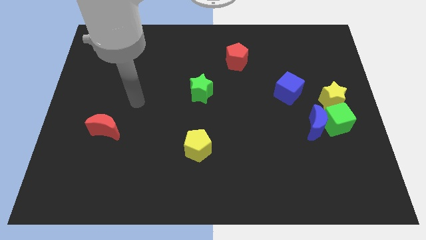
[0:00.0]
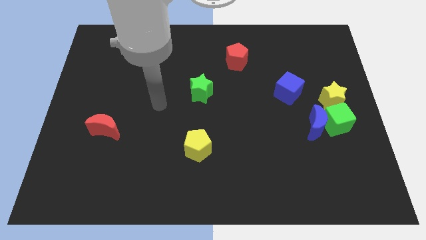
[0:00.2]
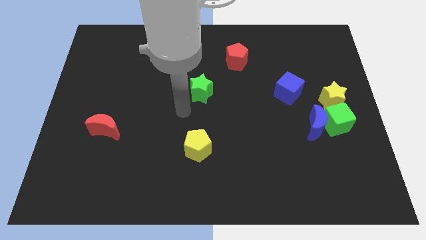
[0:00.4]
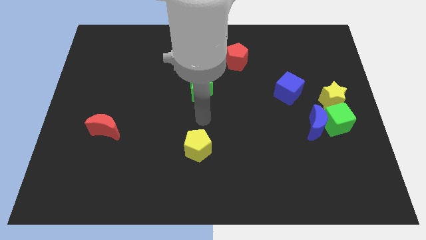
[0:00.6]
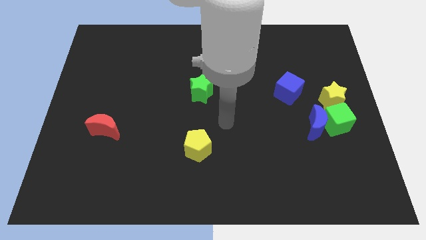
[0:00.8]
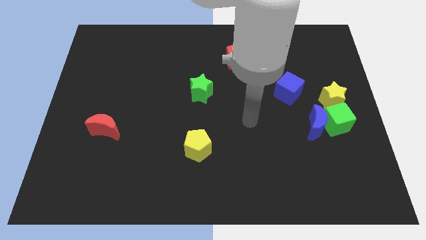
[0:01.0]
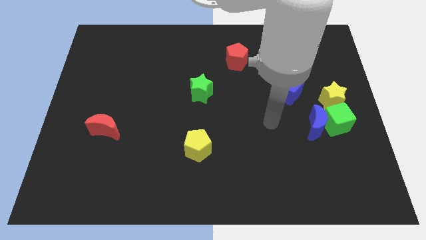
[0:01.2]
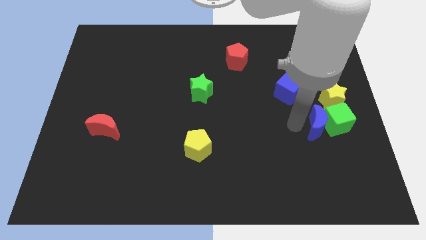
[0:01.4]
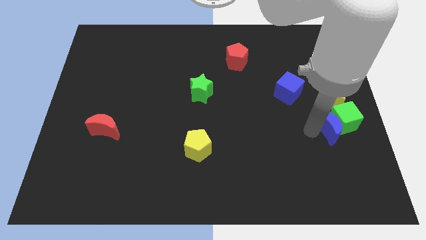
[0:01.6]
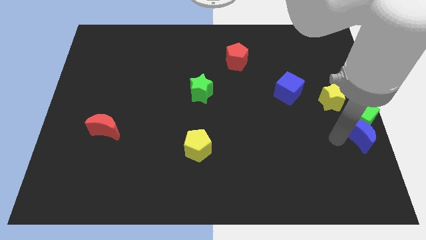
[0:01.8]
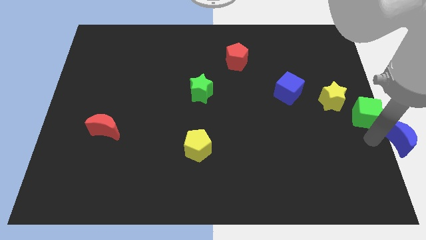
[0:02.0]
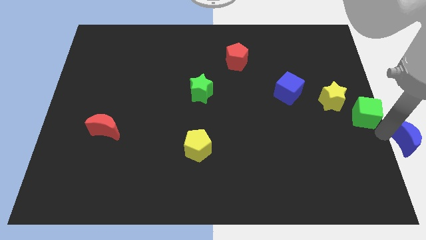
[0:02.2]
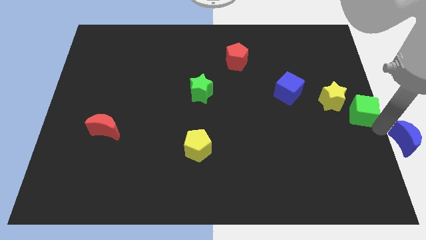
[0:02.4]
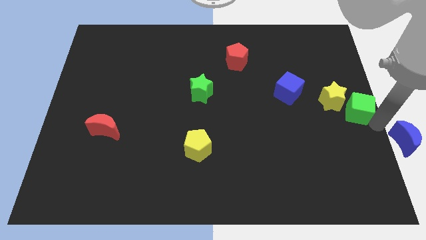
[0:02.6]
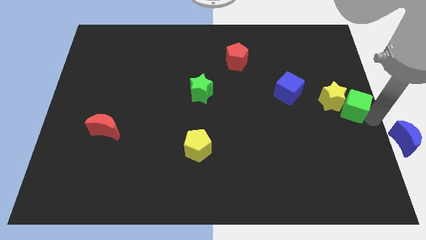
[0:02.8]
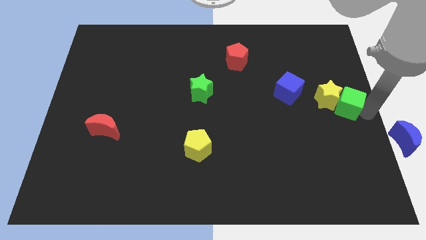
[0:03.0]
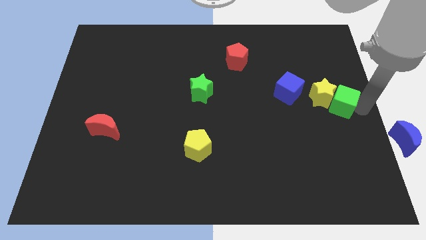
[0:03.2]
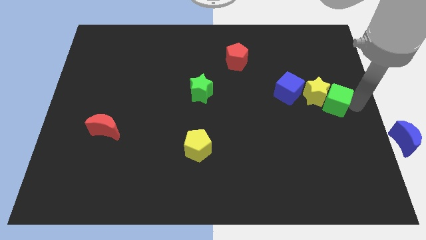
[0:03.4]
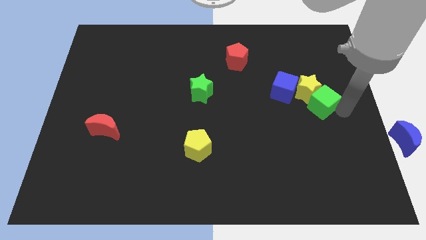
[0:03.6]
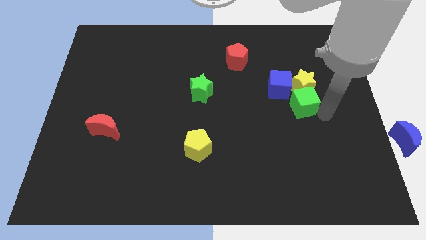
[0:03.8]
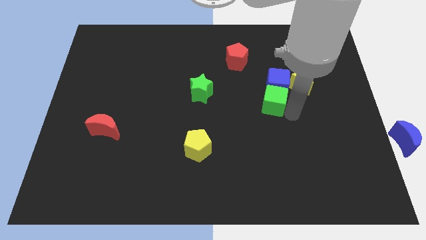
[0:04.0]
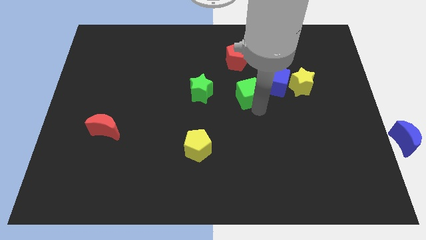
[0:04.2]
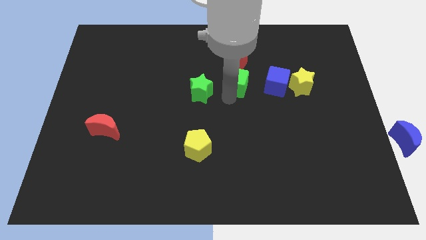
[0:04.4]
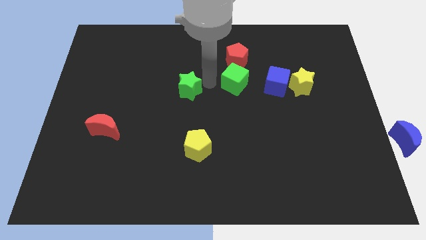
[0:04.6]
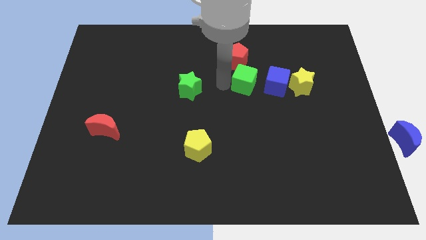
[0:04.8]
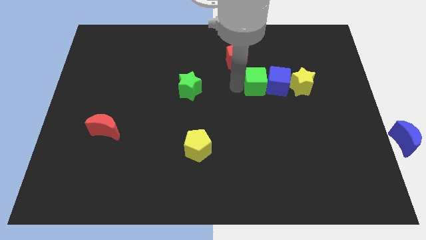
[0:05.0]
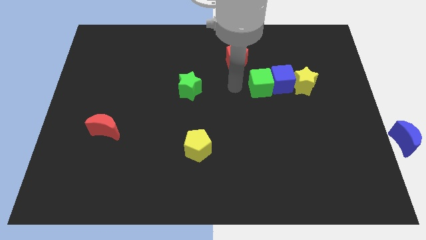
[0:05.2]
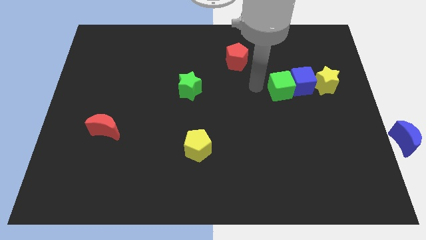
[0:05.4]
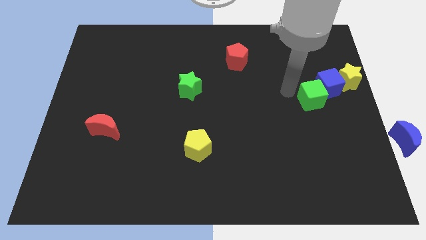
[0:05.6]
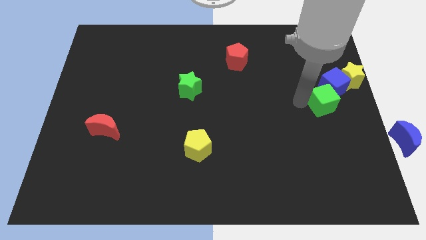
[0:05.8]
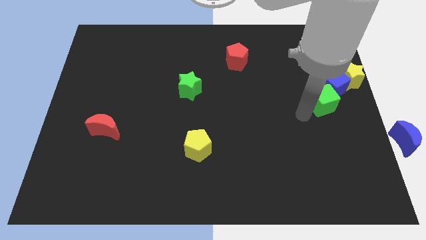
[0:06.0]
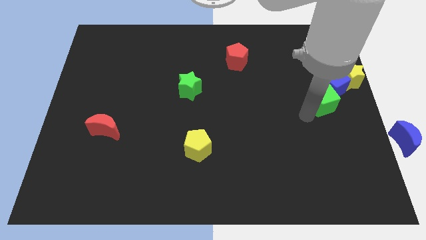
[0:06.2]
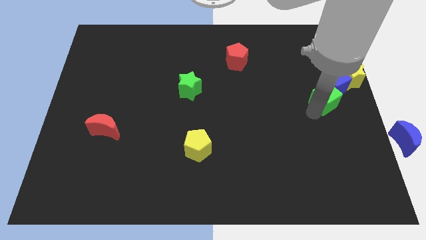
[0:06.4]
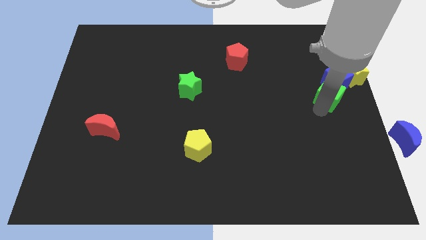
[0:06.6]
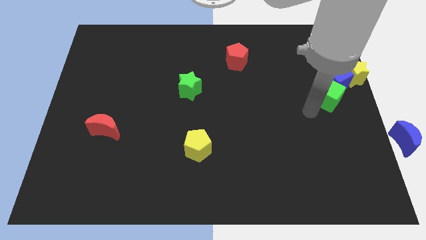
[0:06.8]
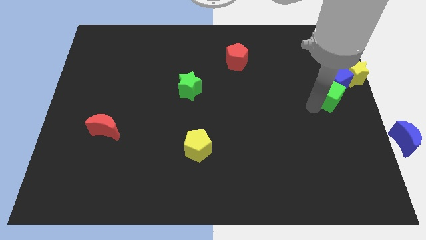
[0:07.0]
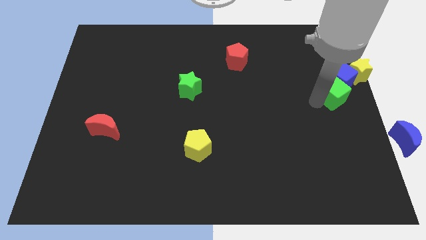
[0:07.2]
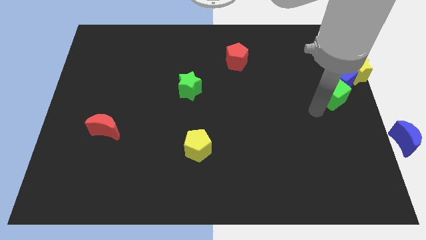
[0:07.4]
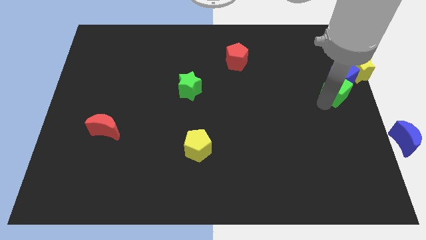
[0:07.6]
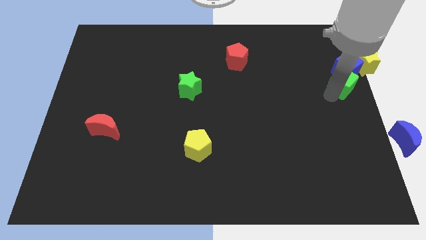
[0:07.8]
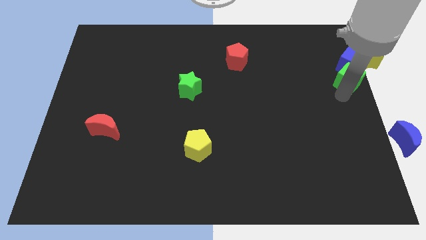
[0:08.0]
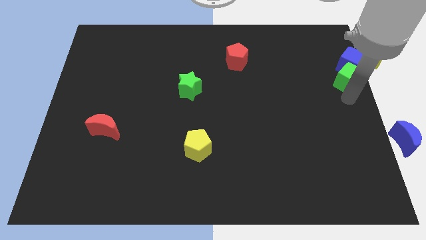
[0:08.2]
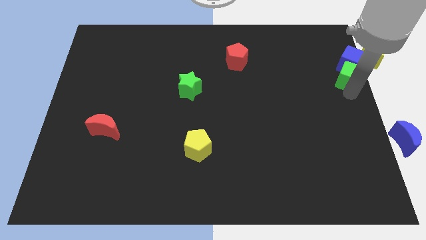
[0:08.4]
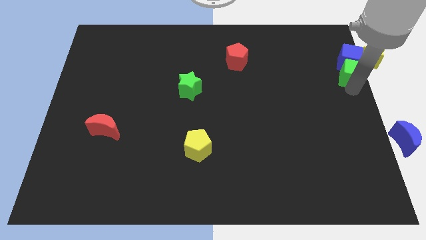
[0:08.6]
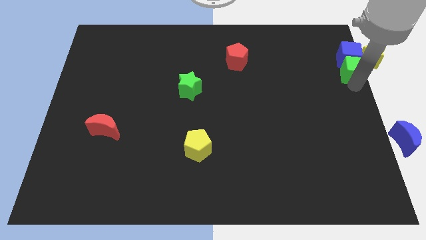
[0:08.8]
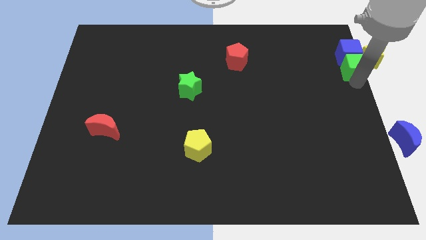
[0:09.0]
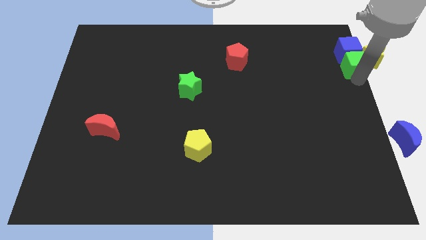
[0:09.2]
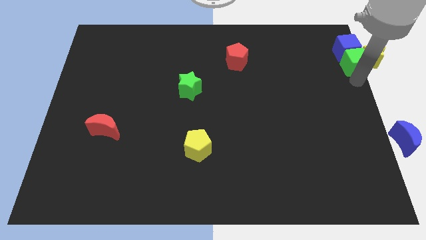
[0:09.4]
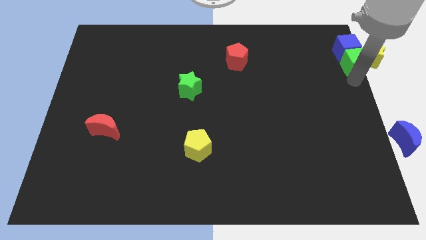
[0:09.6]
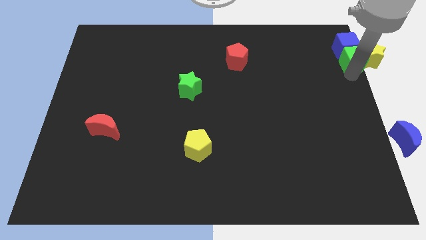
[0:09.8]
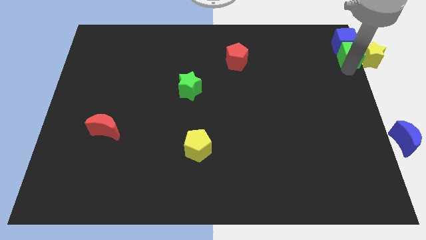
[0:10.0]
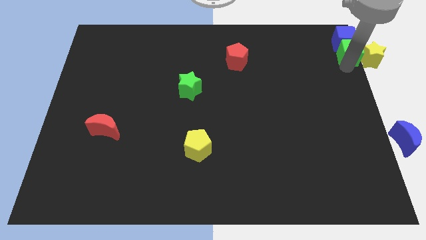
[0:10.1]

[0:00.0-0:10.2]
put the green cube to the top right

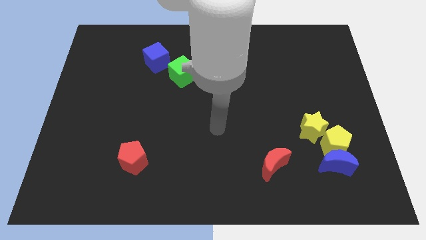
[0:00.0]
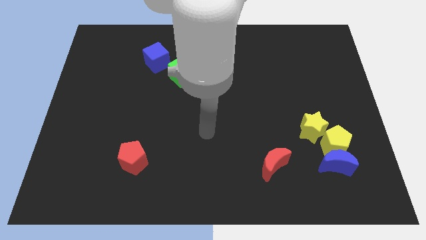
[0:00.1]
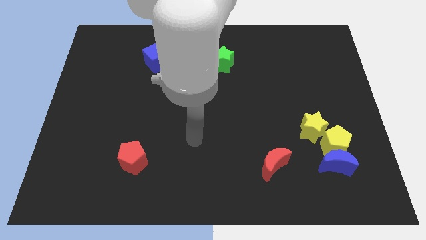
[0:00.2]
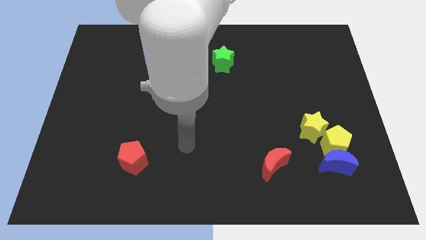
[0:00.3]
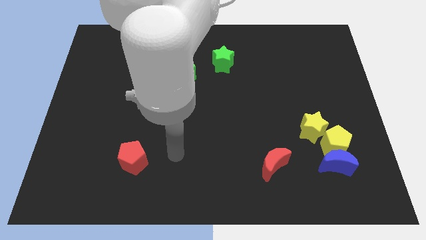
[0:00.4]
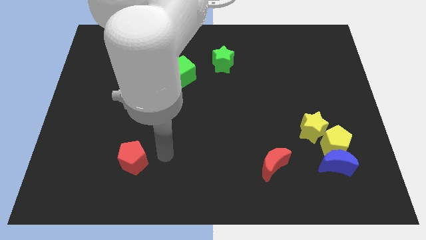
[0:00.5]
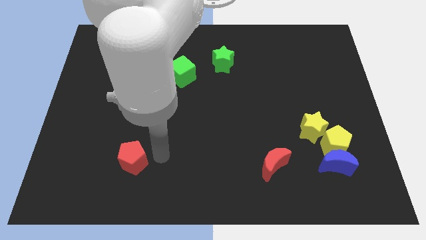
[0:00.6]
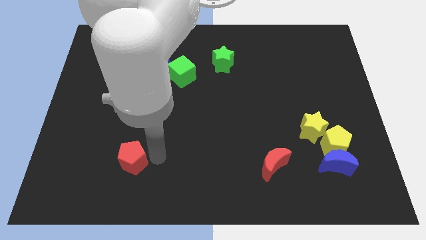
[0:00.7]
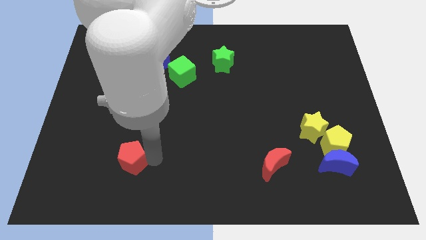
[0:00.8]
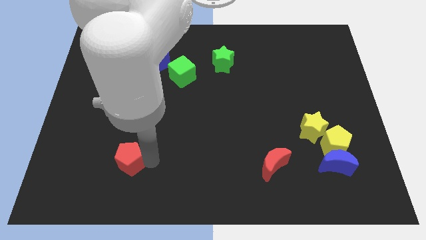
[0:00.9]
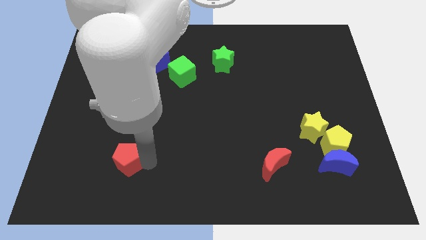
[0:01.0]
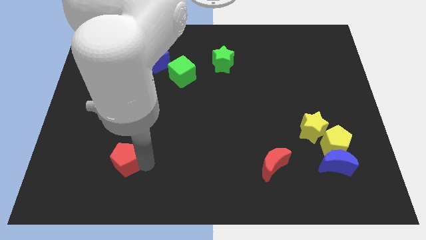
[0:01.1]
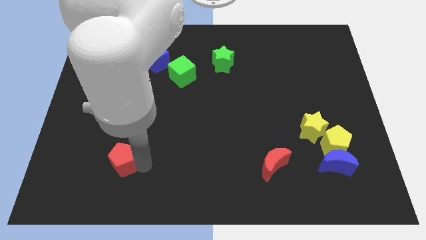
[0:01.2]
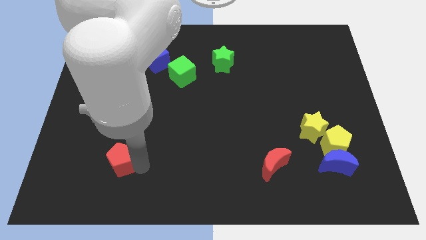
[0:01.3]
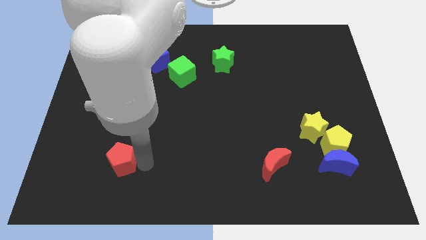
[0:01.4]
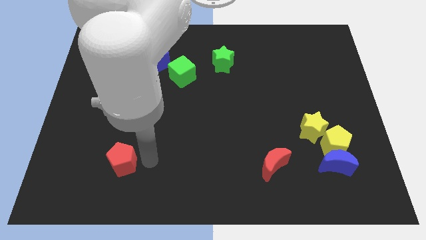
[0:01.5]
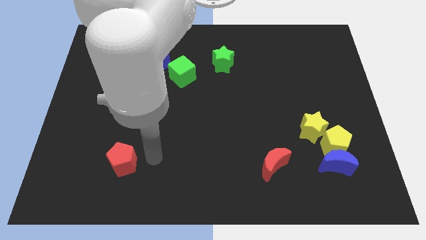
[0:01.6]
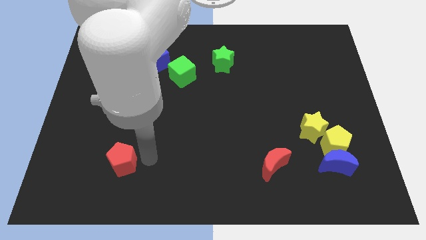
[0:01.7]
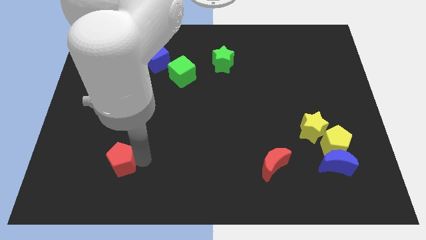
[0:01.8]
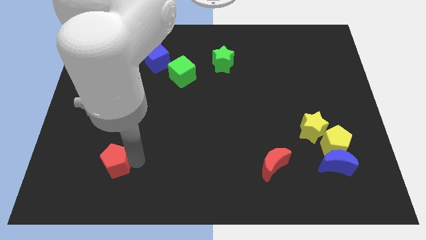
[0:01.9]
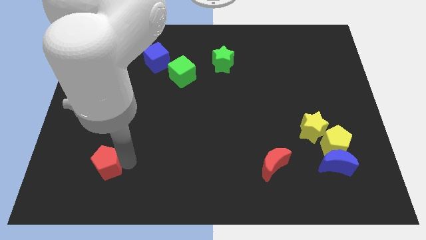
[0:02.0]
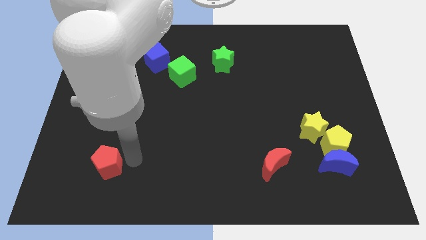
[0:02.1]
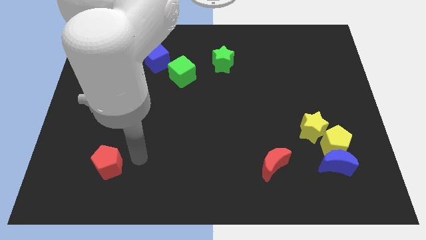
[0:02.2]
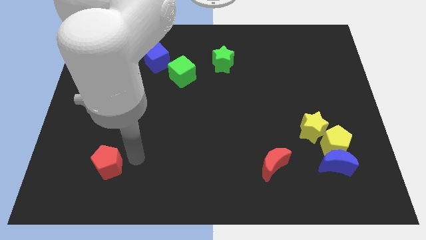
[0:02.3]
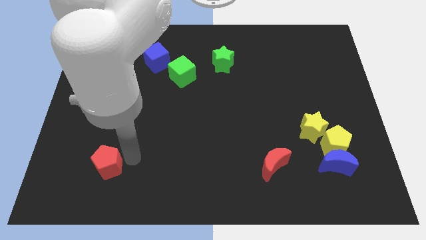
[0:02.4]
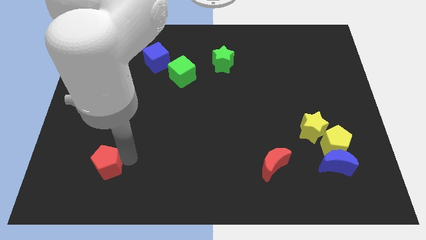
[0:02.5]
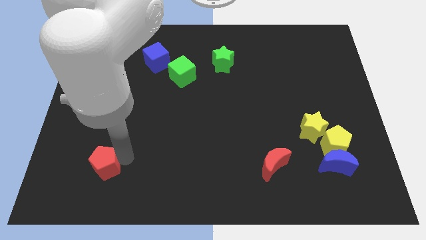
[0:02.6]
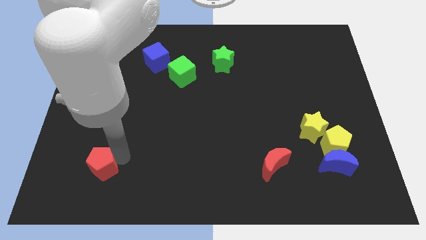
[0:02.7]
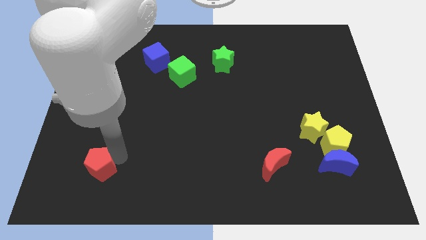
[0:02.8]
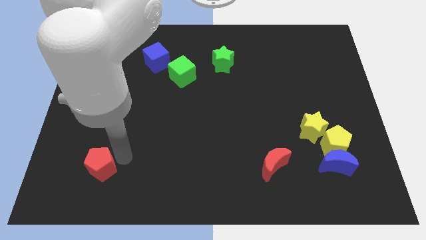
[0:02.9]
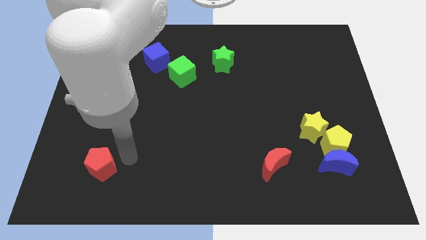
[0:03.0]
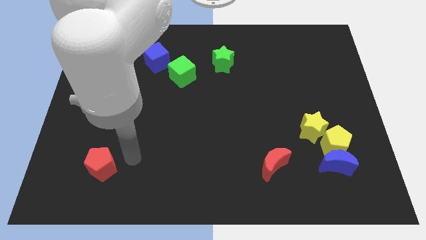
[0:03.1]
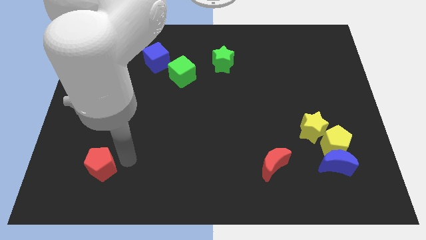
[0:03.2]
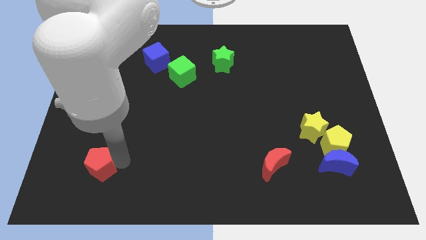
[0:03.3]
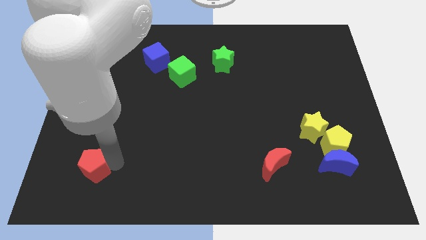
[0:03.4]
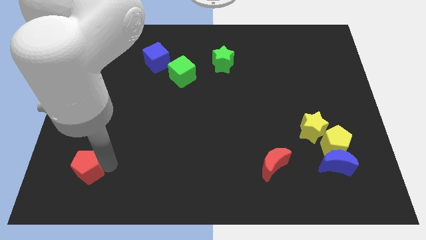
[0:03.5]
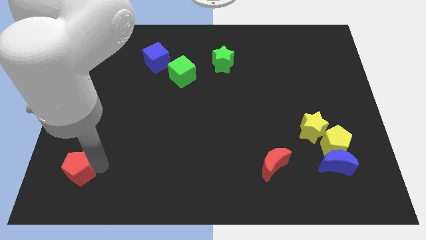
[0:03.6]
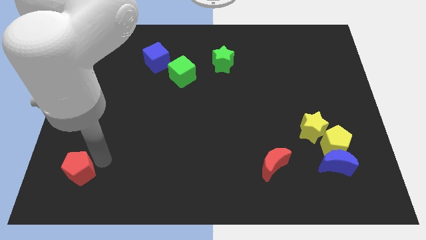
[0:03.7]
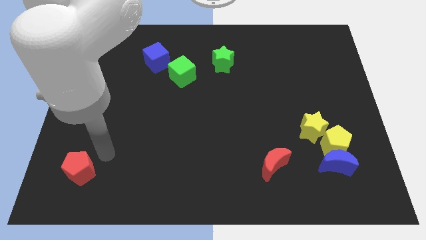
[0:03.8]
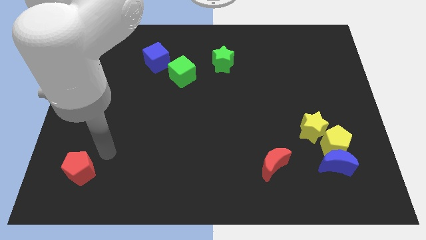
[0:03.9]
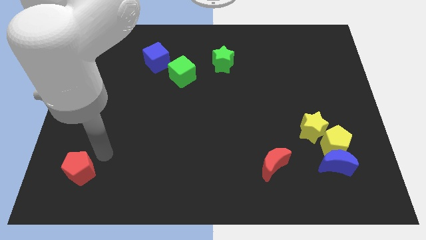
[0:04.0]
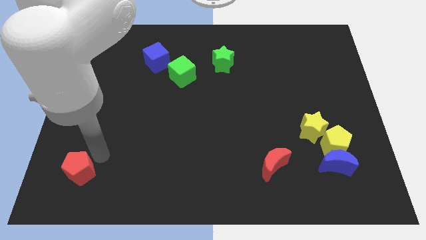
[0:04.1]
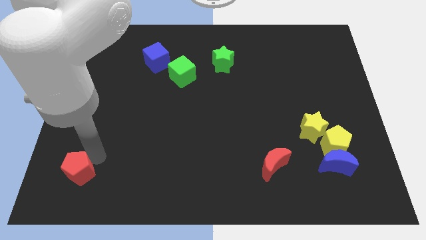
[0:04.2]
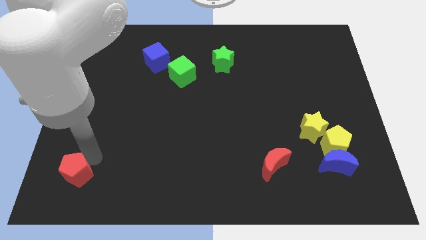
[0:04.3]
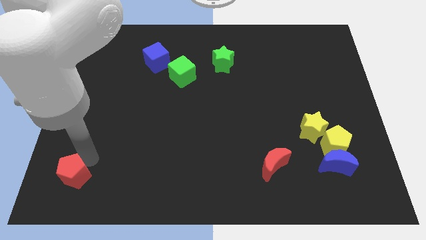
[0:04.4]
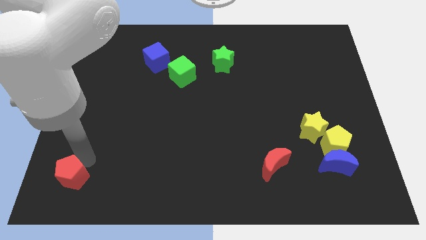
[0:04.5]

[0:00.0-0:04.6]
put the red pentagon to the bottom left of the board
